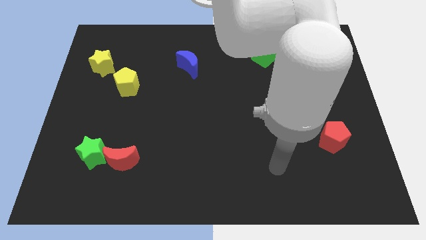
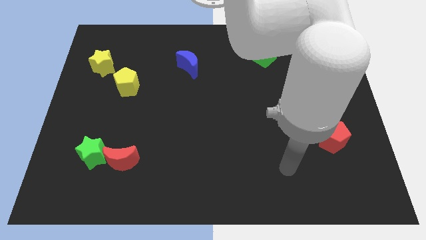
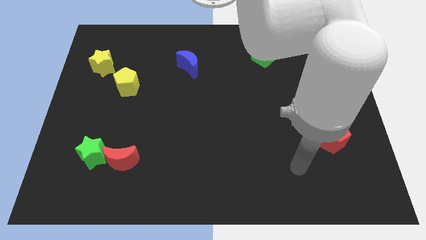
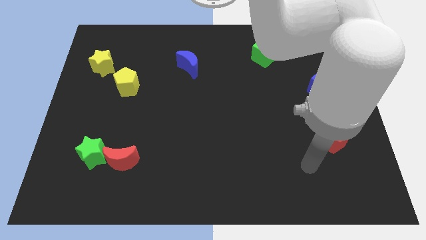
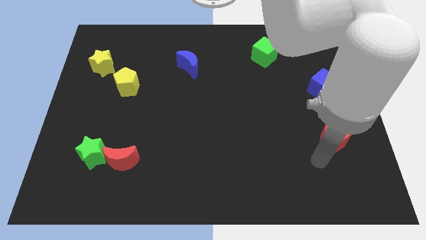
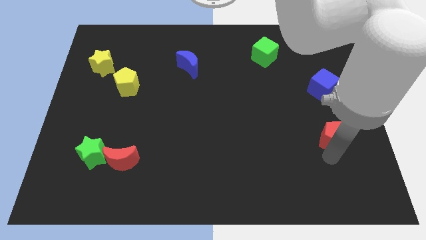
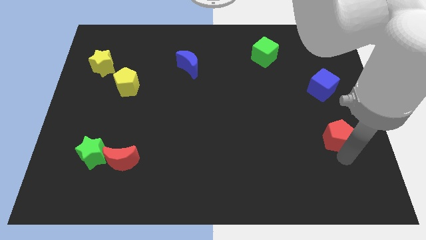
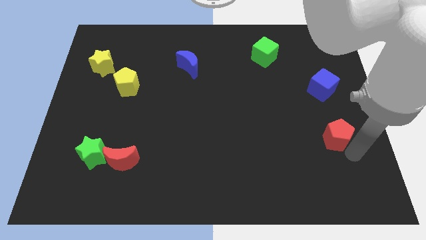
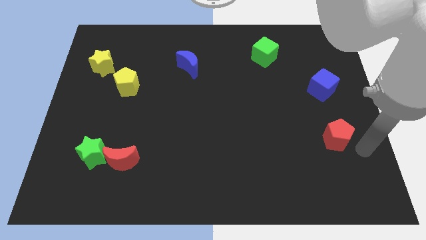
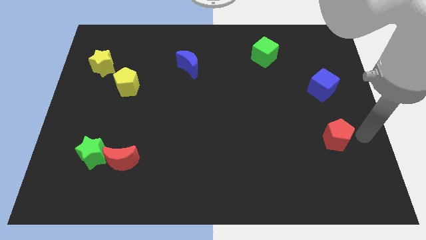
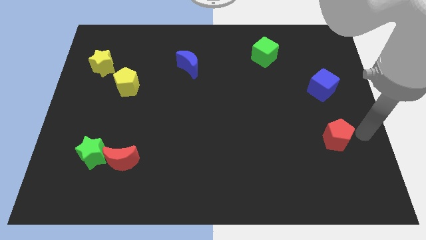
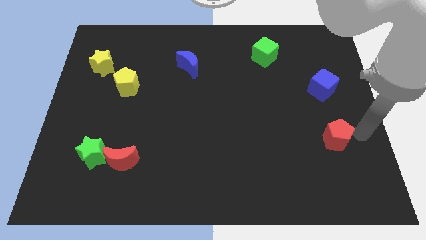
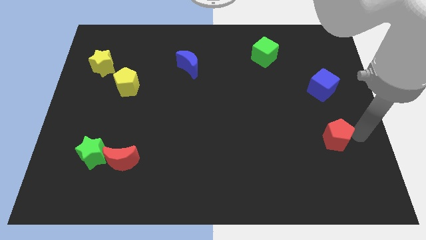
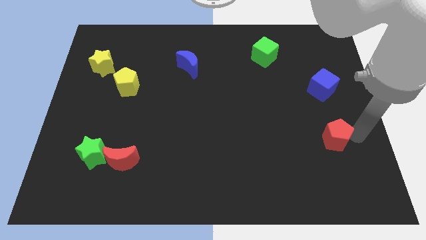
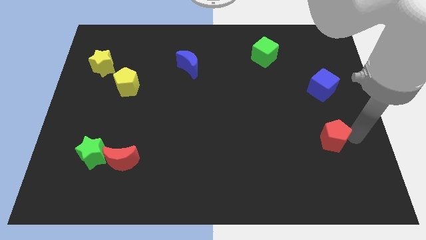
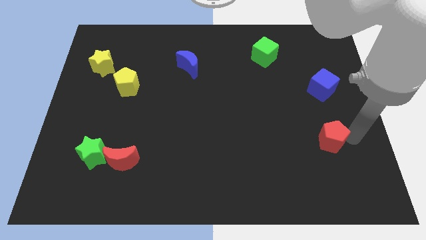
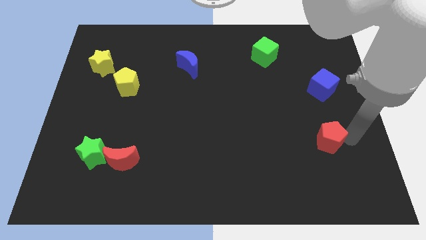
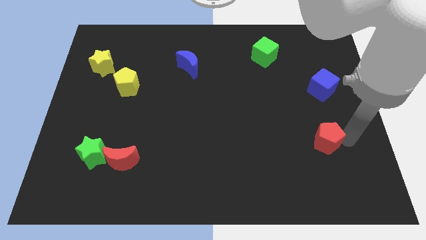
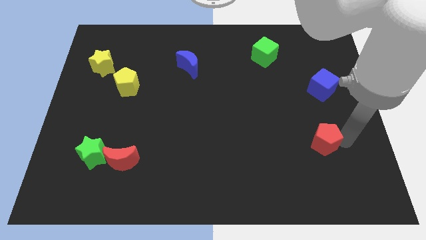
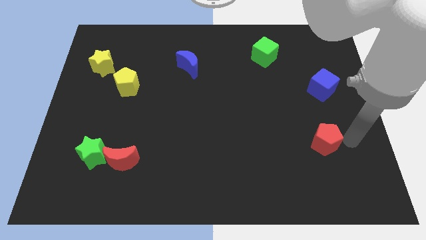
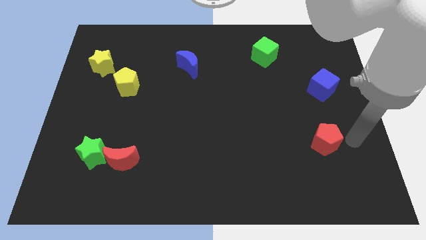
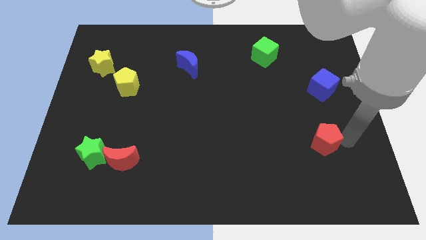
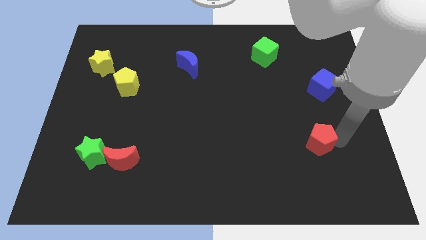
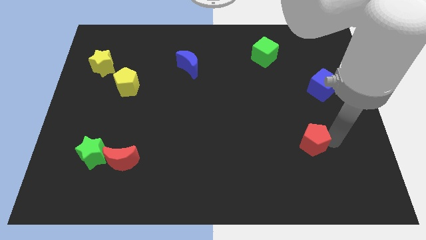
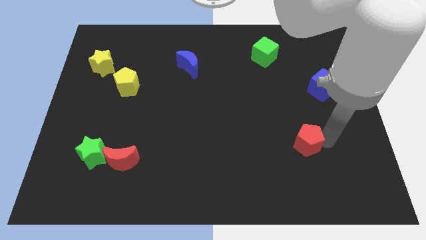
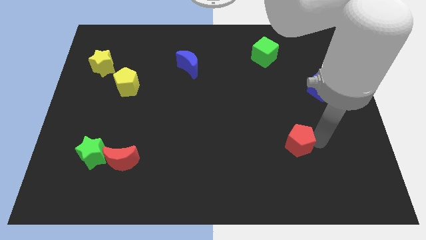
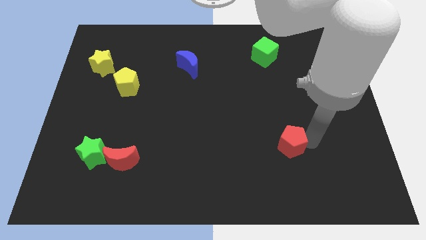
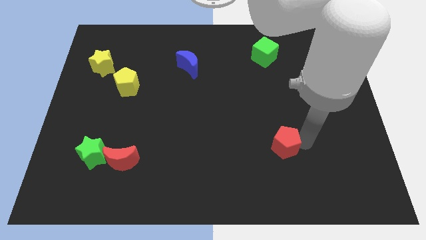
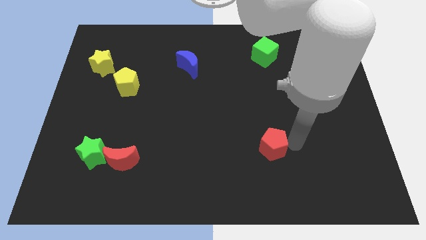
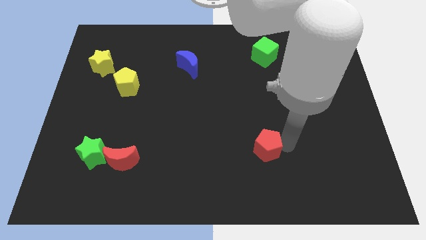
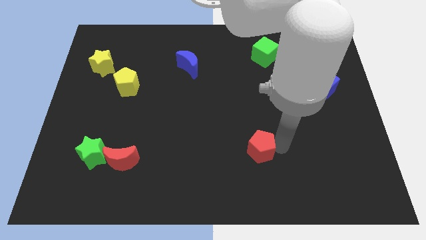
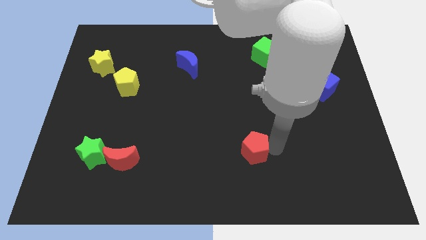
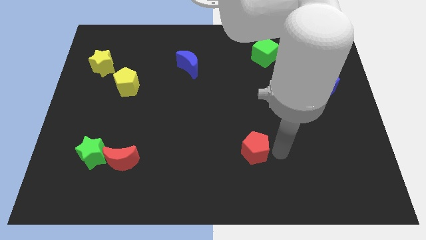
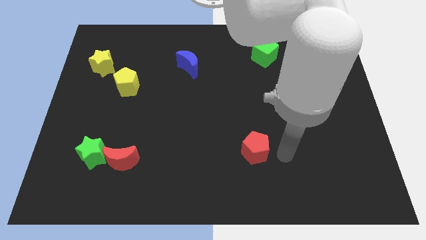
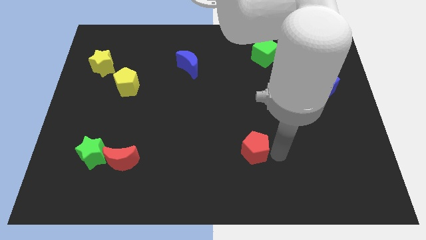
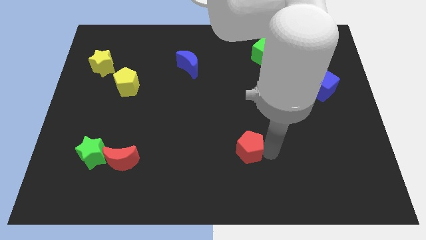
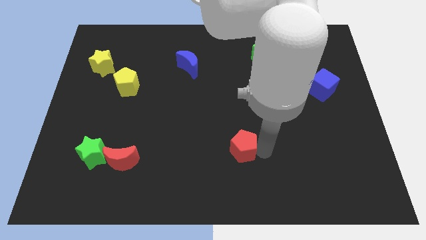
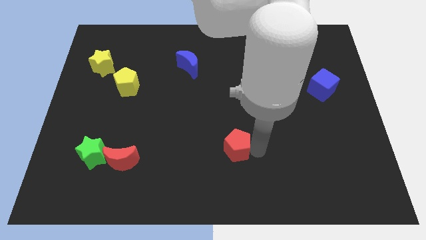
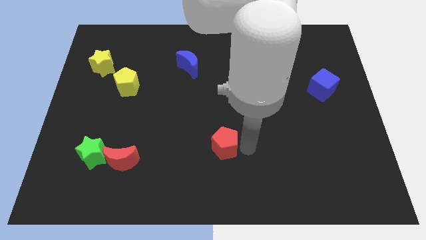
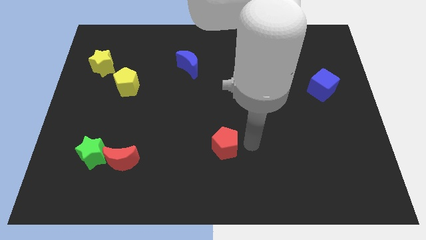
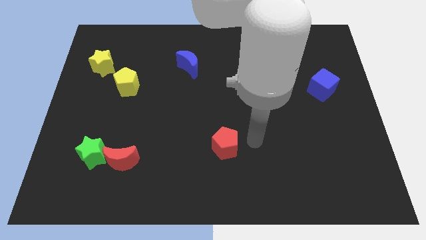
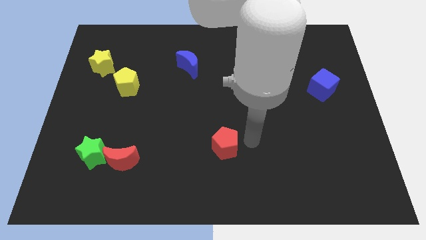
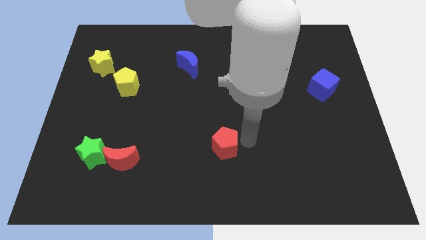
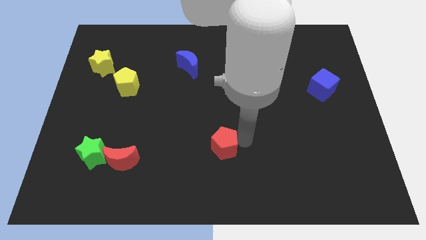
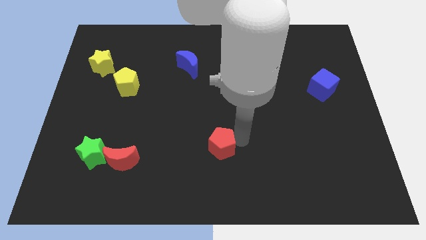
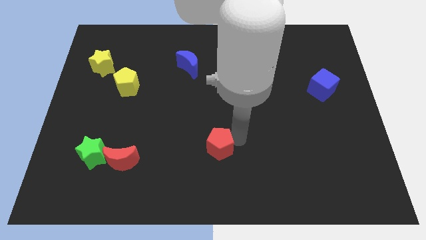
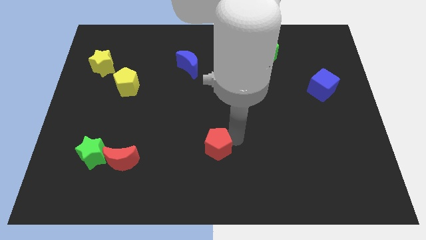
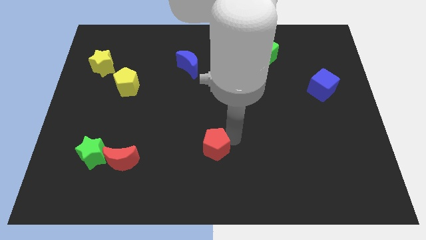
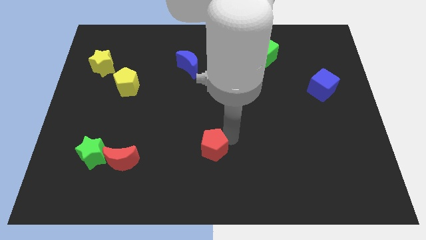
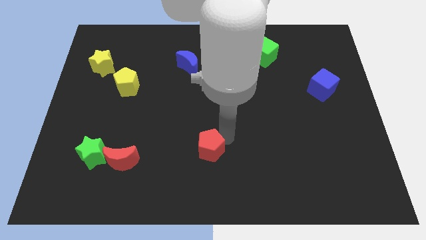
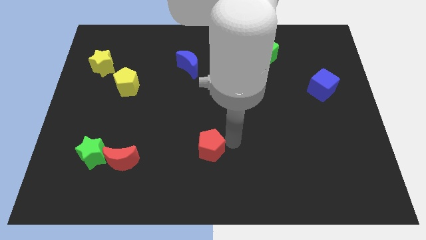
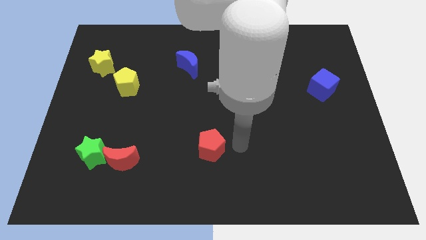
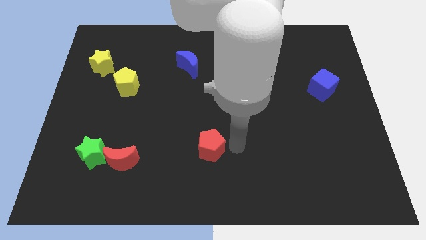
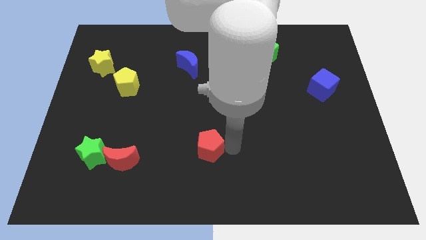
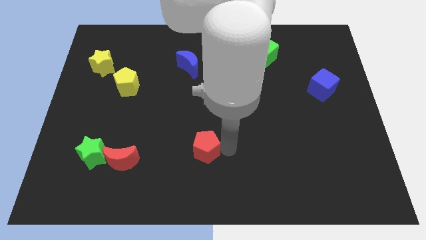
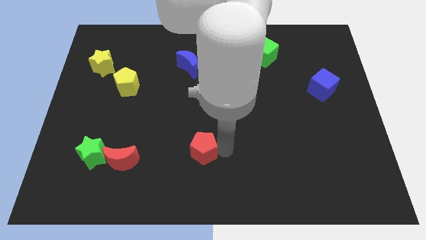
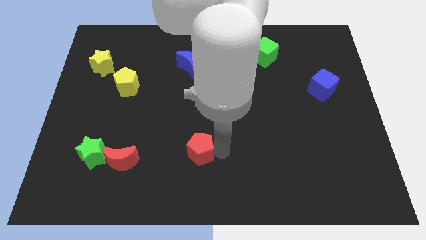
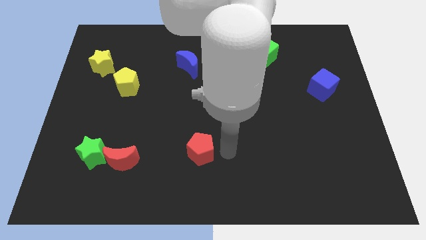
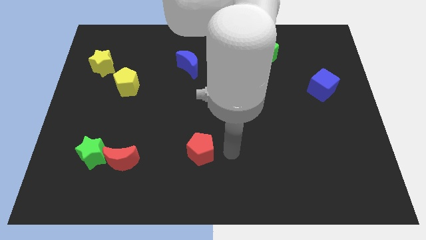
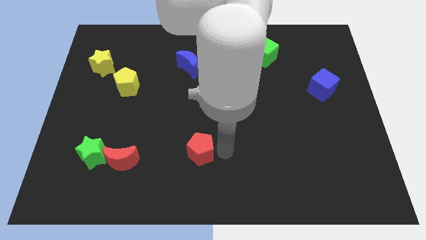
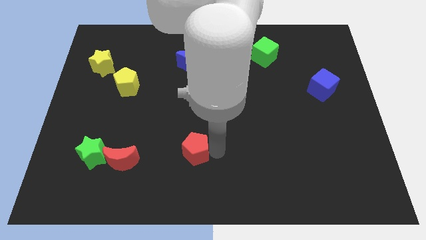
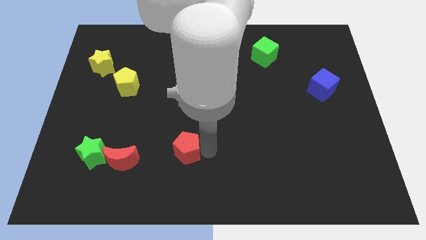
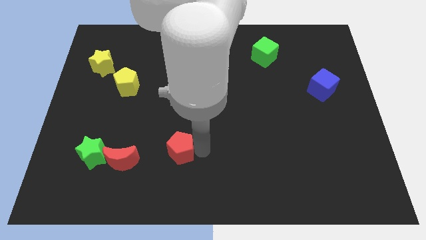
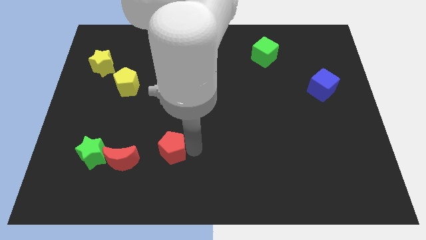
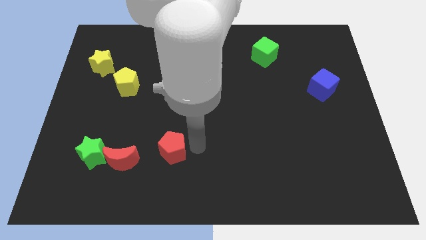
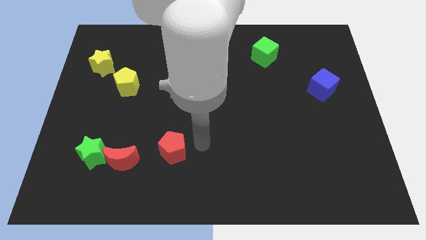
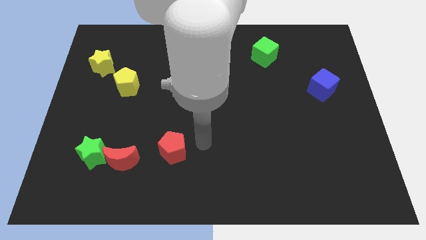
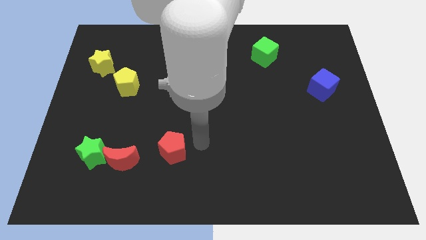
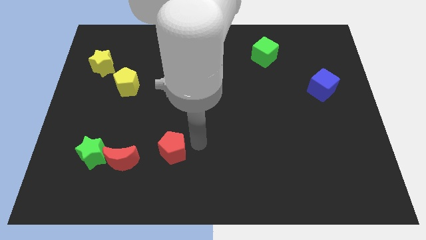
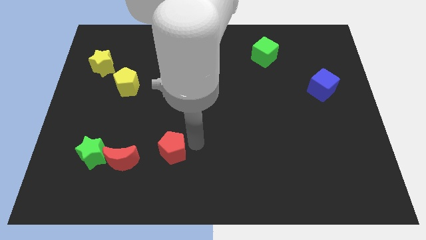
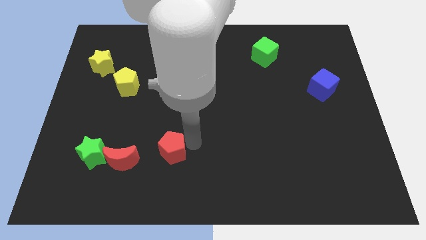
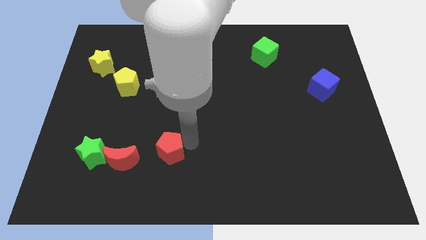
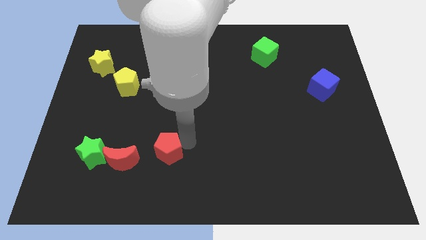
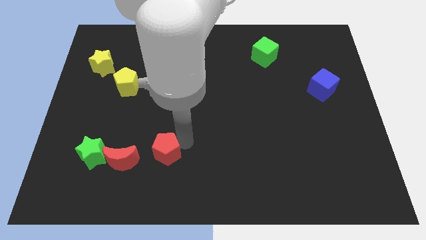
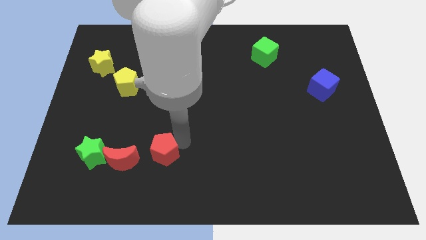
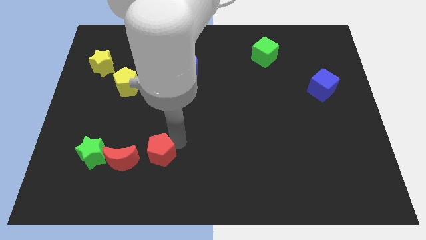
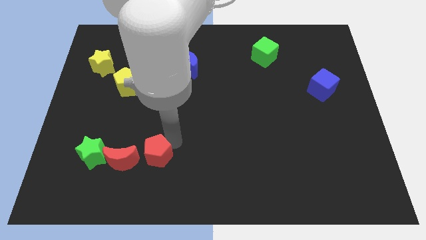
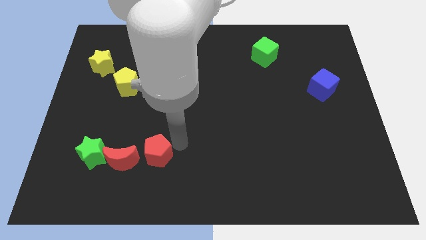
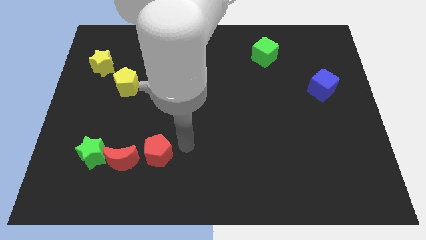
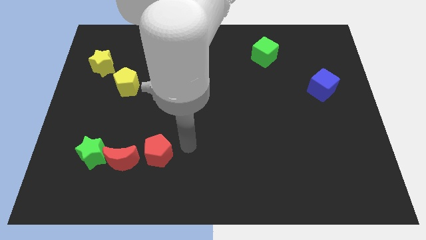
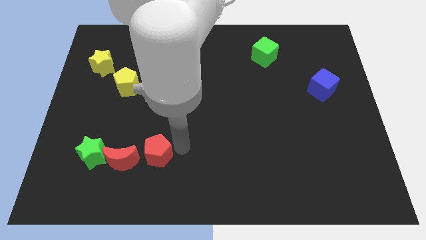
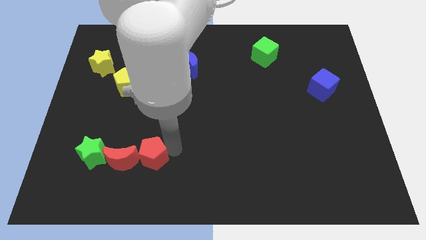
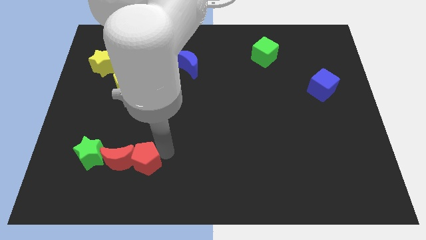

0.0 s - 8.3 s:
move the red pentagon towards the red moon
